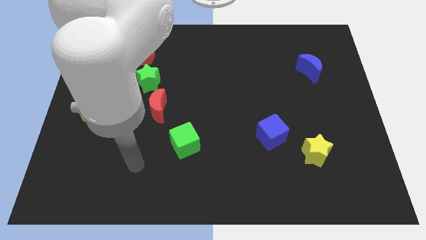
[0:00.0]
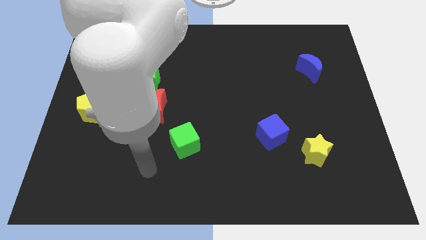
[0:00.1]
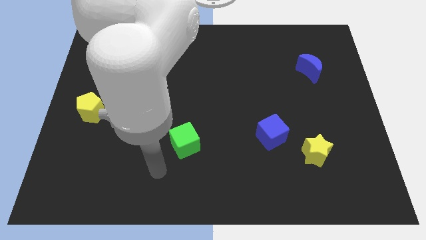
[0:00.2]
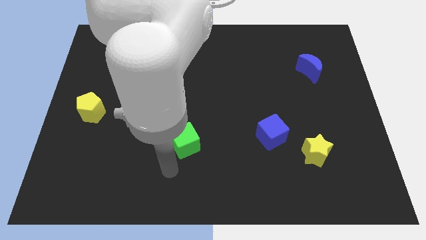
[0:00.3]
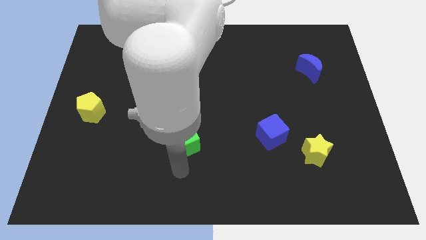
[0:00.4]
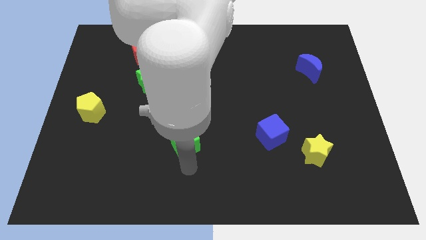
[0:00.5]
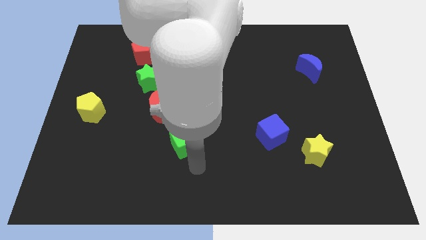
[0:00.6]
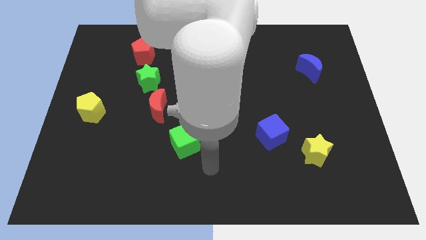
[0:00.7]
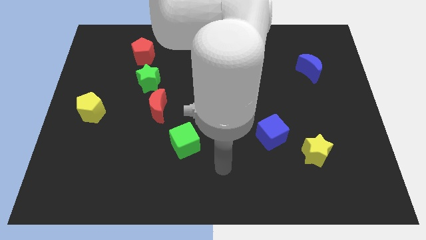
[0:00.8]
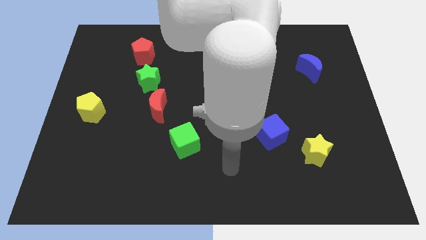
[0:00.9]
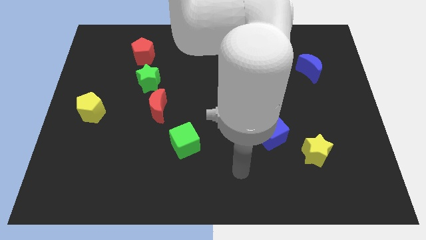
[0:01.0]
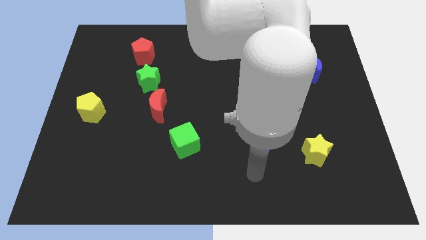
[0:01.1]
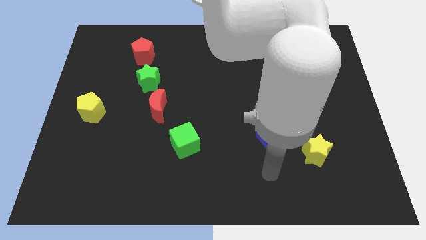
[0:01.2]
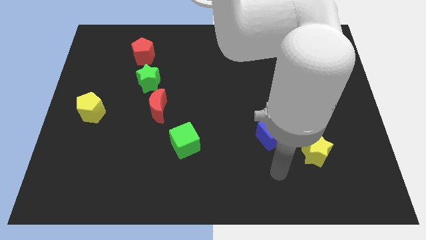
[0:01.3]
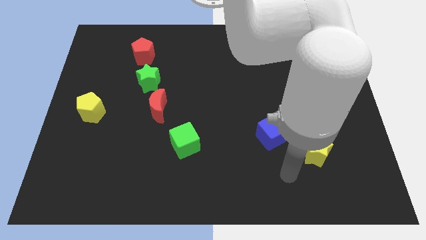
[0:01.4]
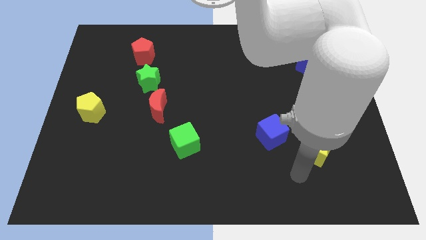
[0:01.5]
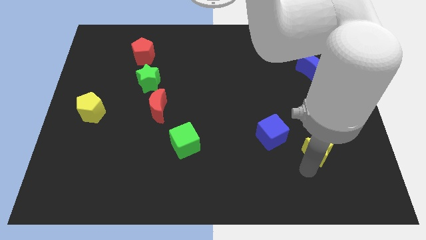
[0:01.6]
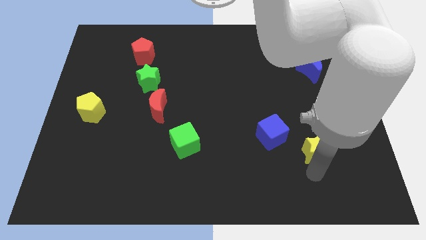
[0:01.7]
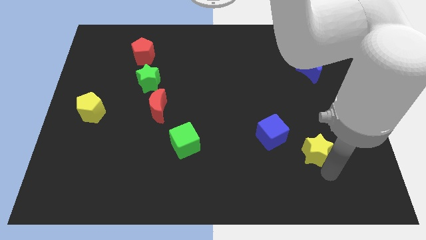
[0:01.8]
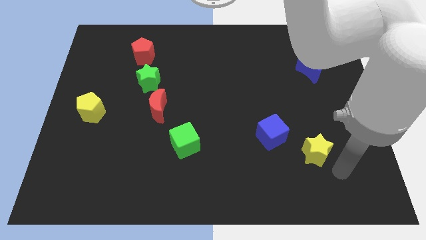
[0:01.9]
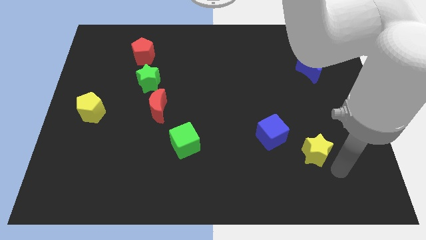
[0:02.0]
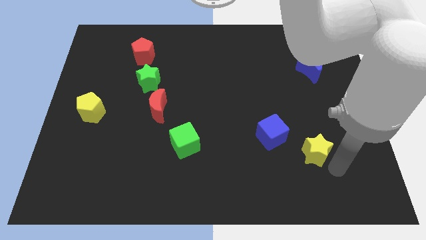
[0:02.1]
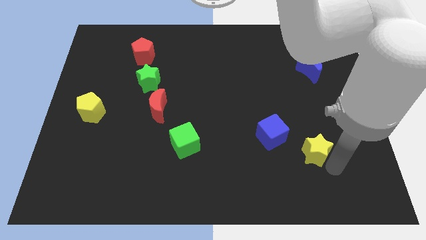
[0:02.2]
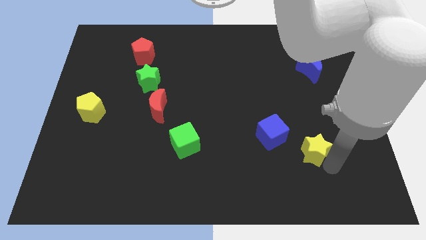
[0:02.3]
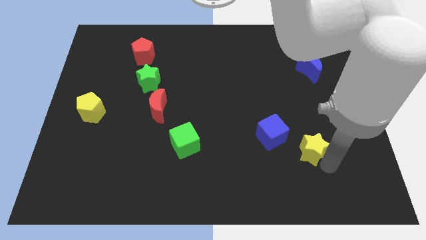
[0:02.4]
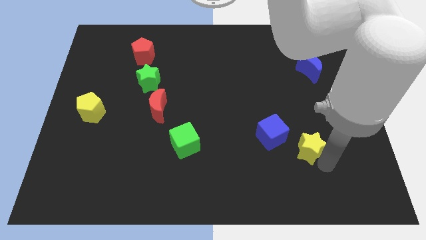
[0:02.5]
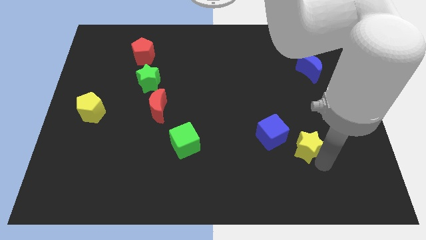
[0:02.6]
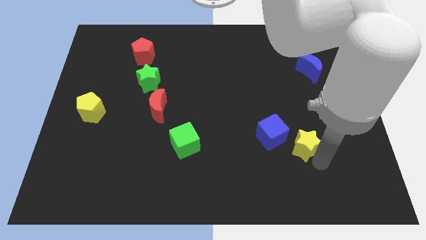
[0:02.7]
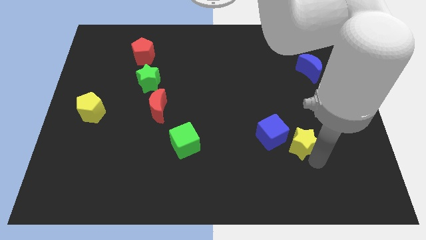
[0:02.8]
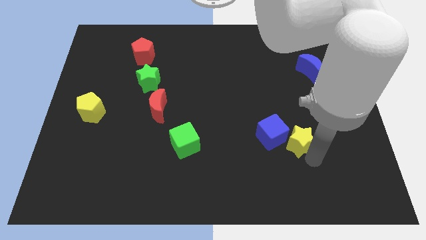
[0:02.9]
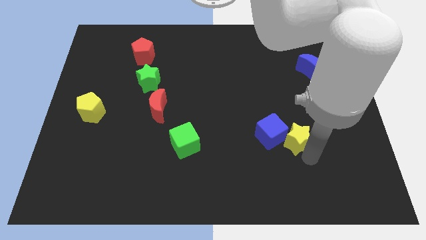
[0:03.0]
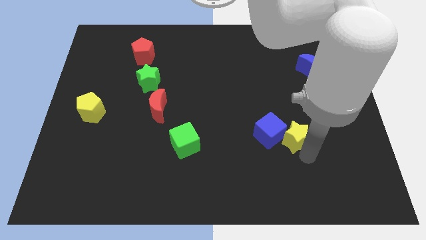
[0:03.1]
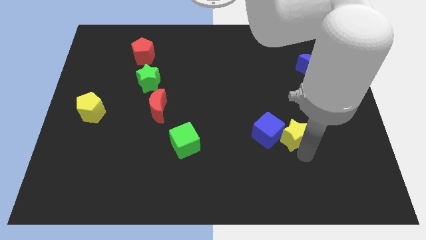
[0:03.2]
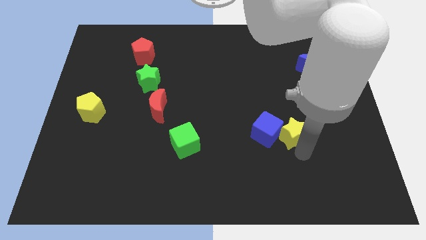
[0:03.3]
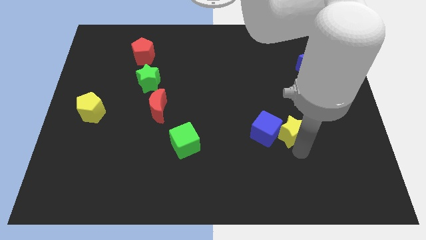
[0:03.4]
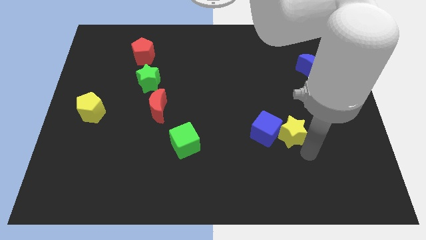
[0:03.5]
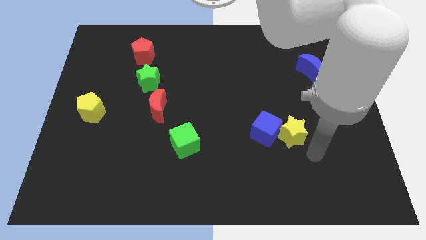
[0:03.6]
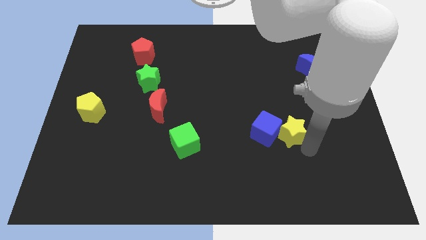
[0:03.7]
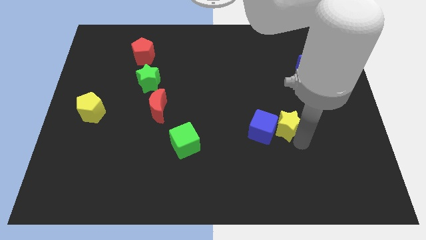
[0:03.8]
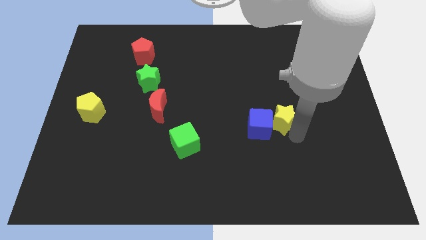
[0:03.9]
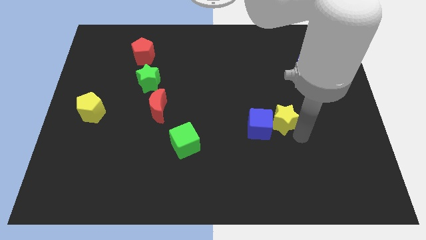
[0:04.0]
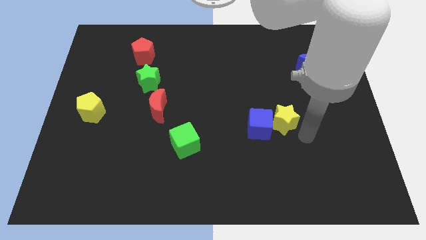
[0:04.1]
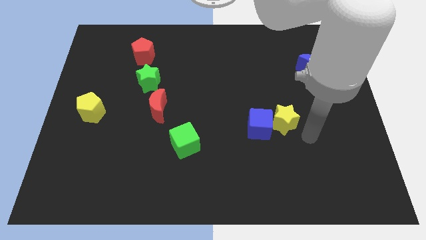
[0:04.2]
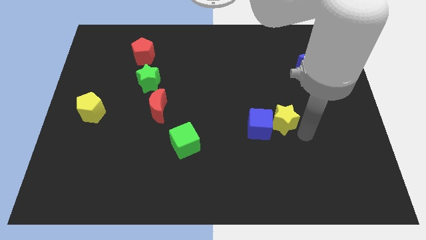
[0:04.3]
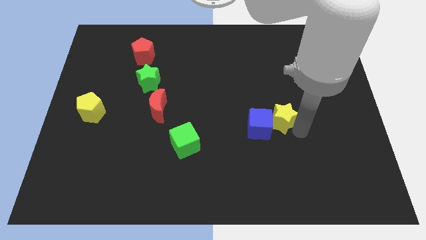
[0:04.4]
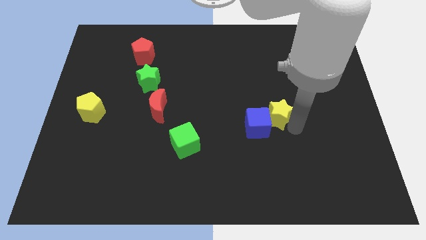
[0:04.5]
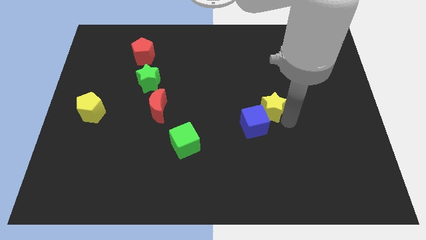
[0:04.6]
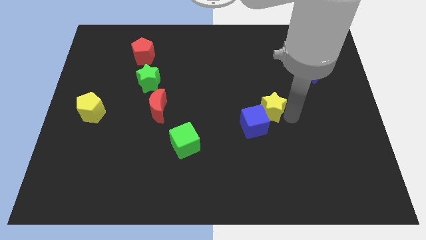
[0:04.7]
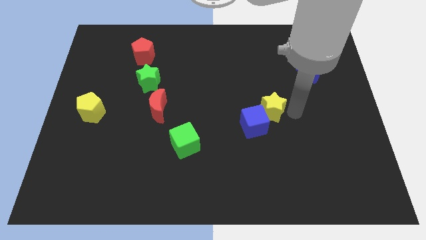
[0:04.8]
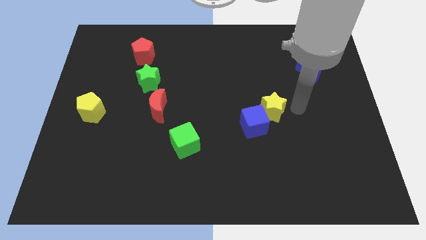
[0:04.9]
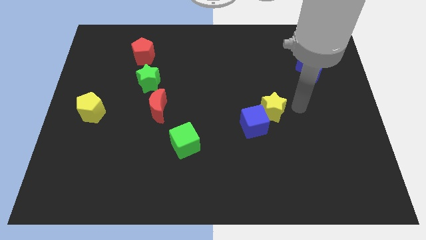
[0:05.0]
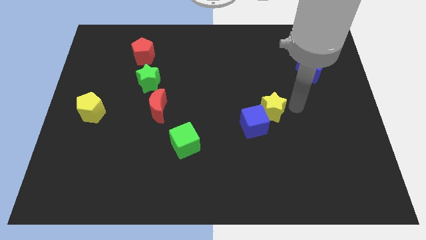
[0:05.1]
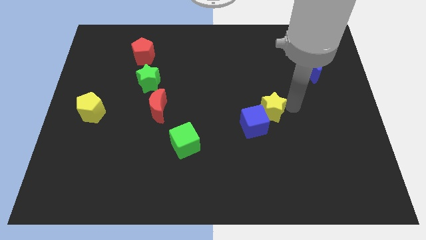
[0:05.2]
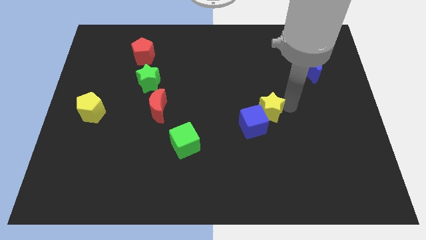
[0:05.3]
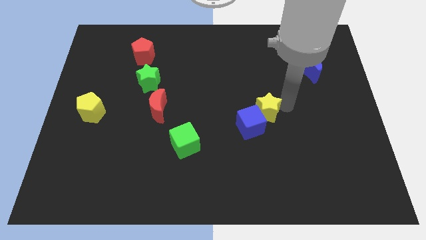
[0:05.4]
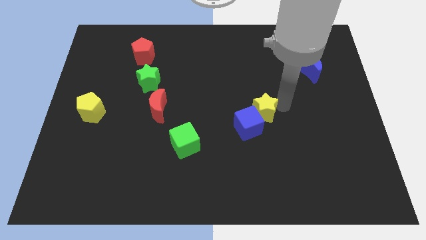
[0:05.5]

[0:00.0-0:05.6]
put the yellow star to the middle
